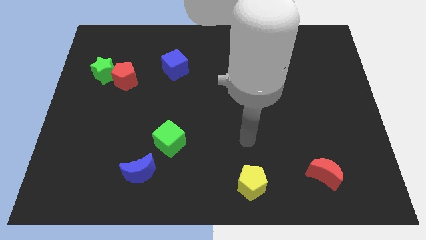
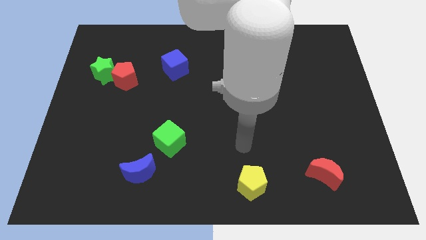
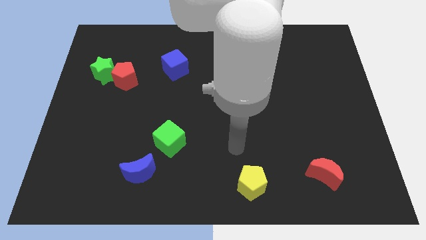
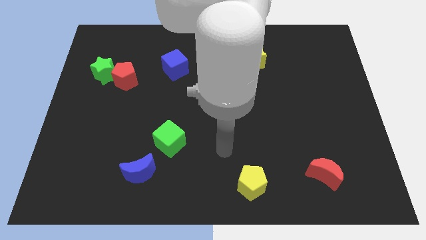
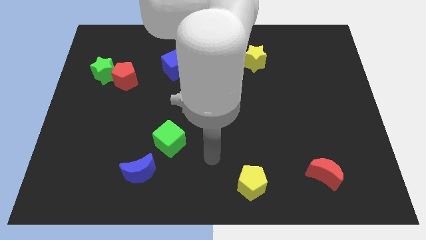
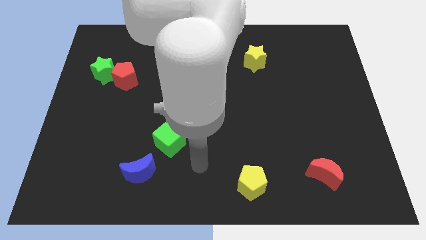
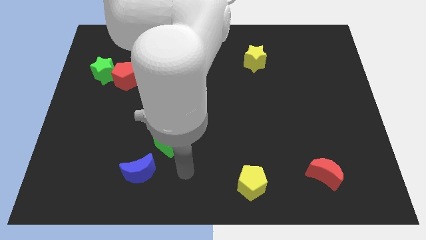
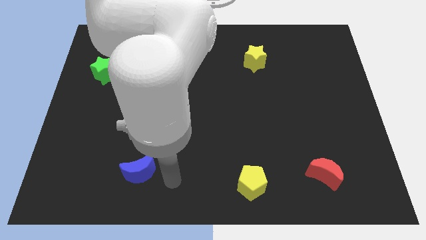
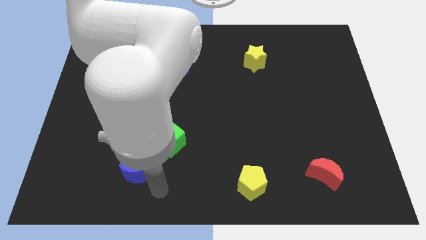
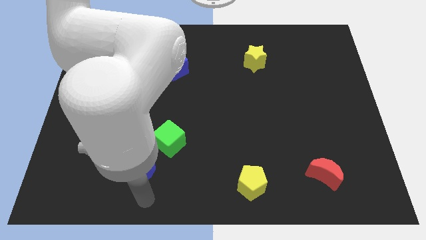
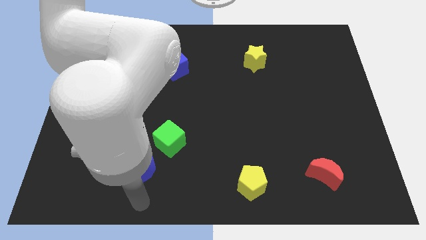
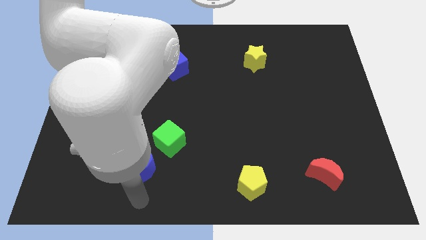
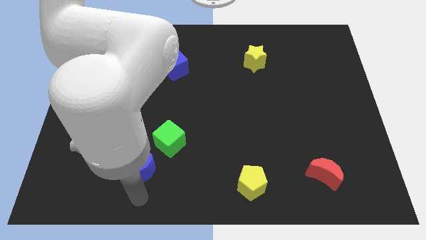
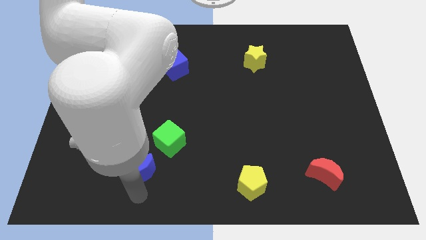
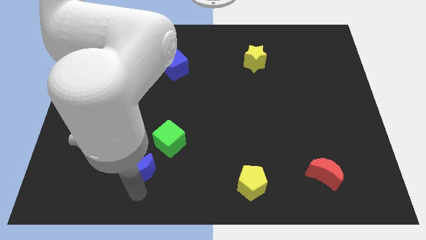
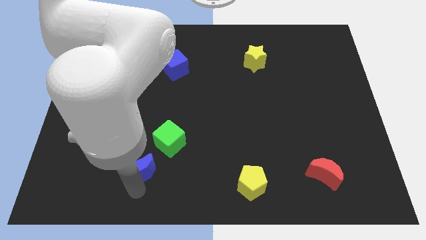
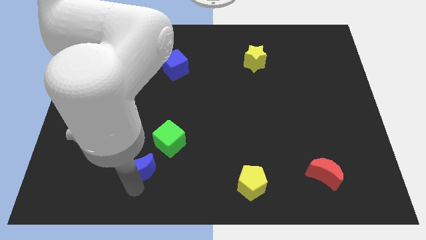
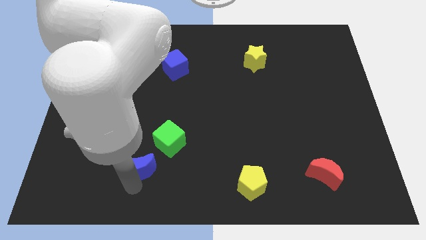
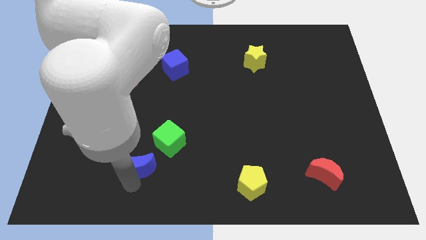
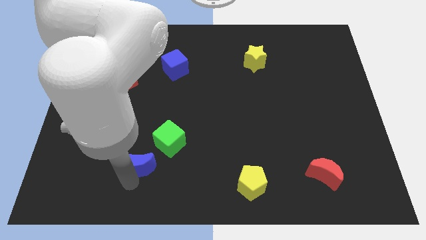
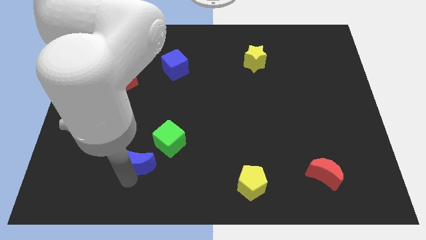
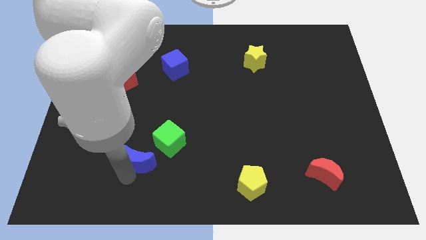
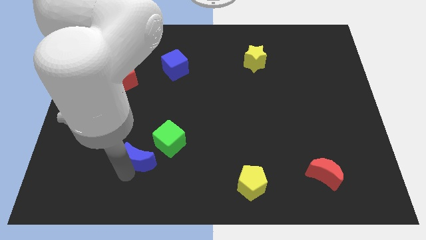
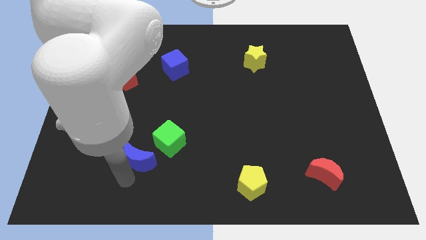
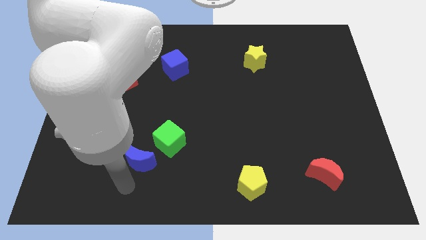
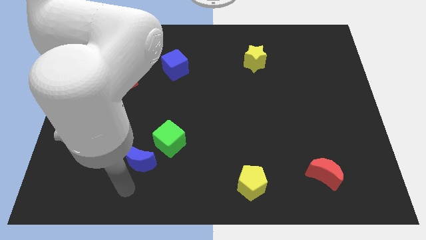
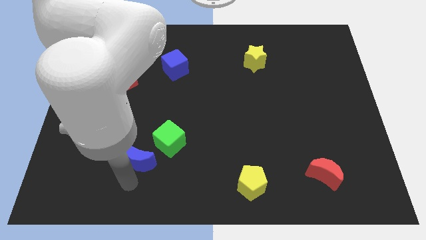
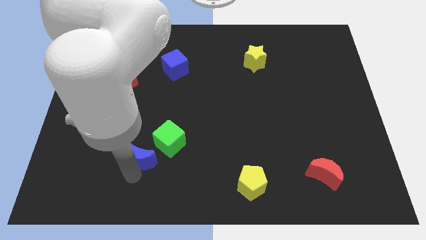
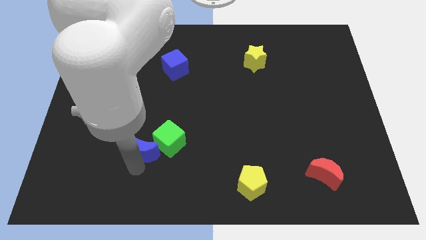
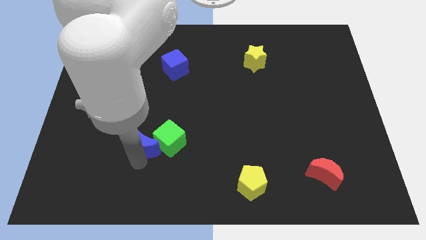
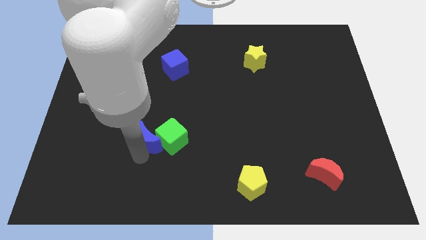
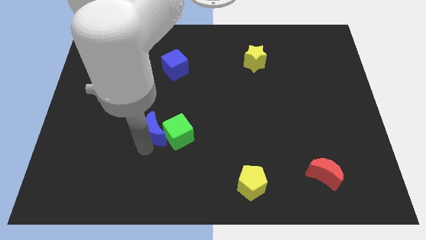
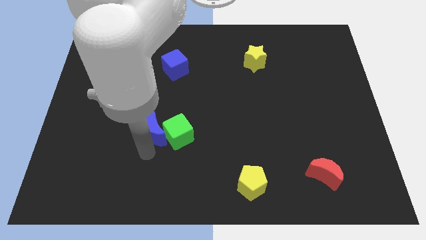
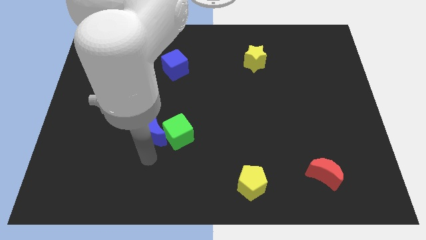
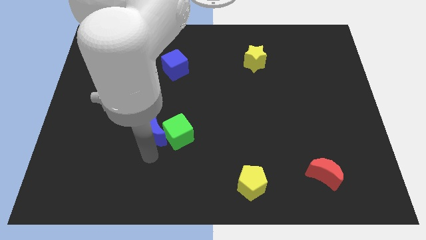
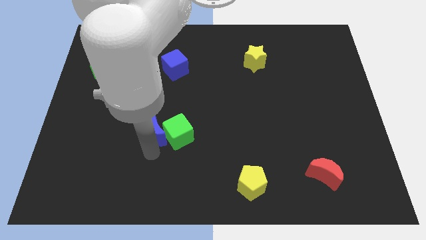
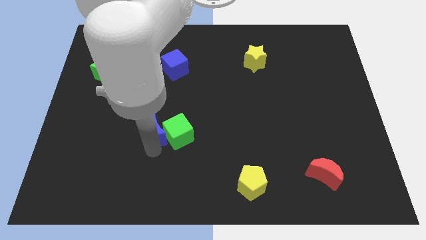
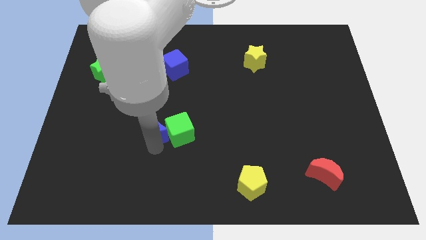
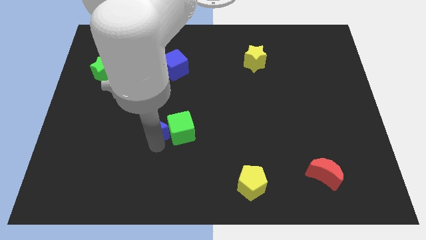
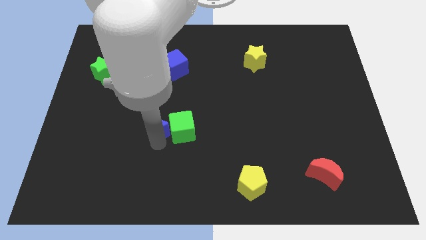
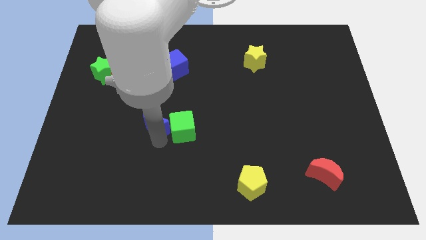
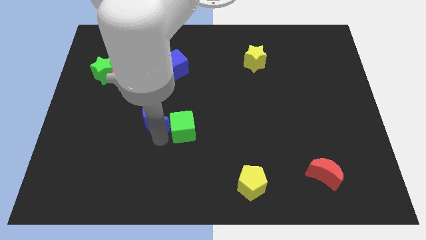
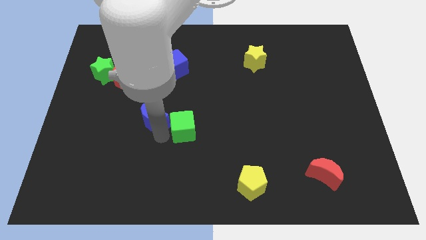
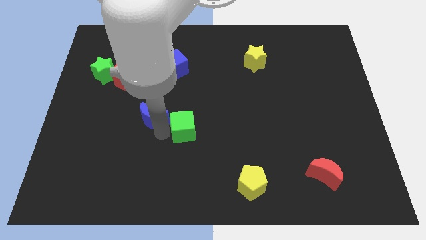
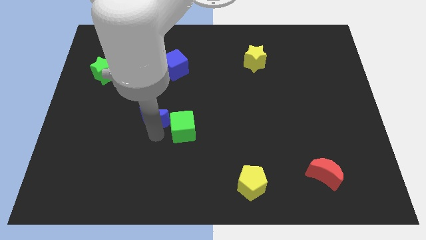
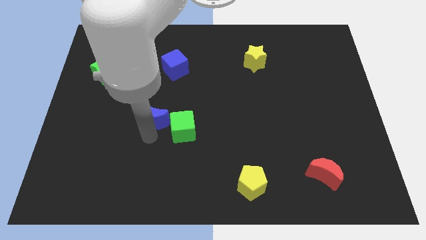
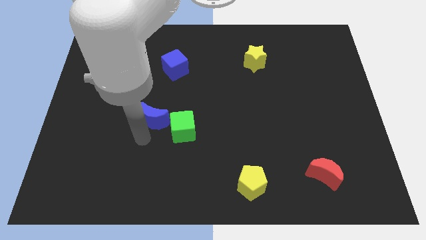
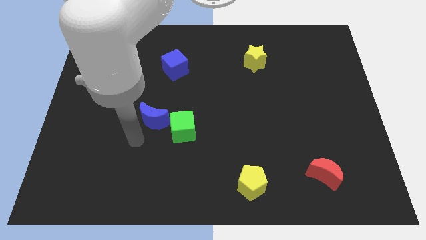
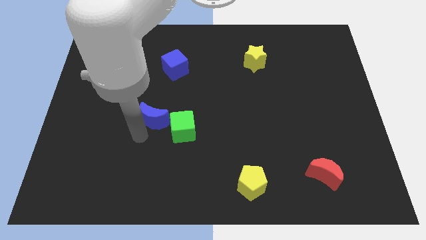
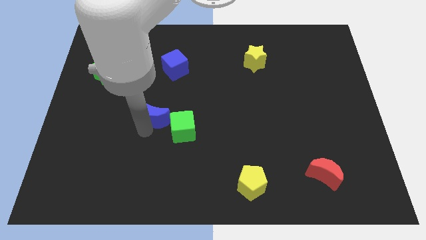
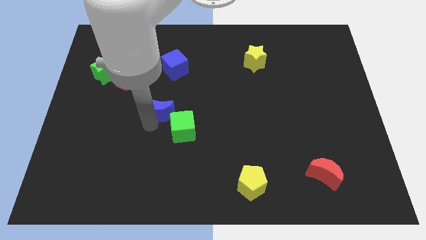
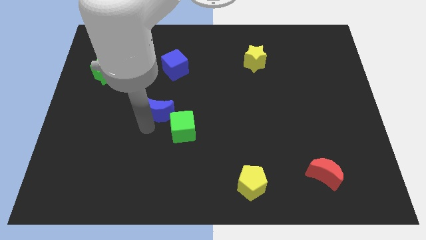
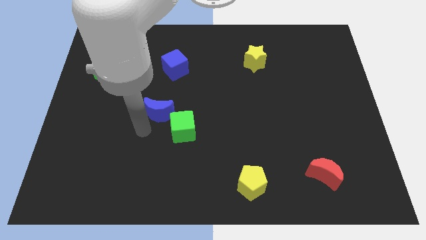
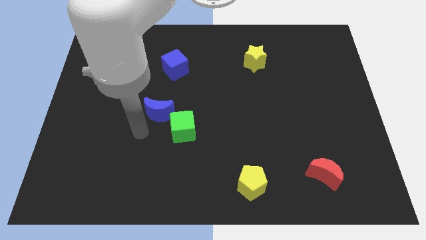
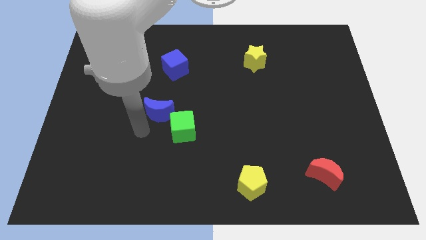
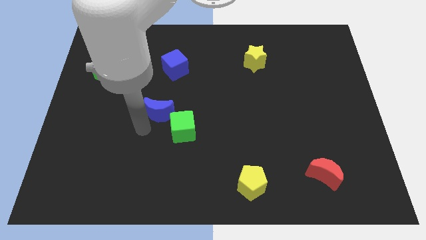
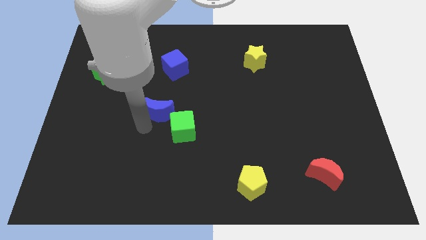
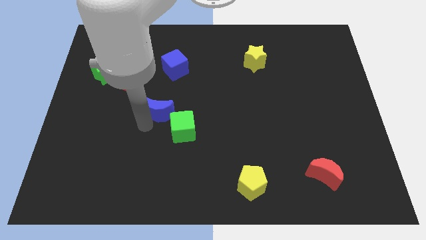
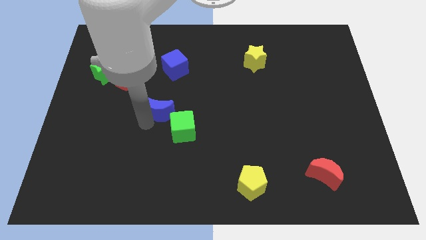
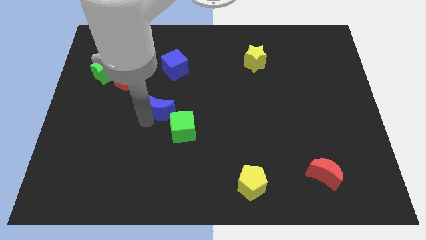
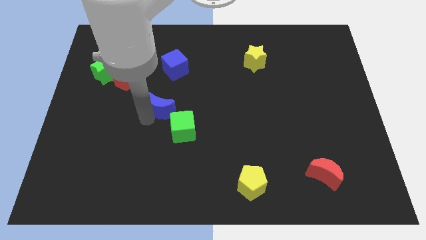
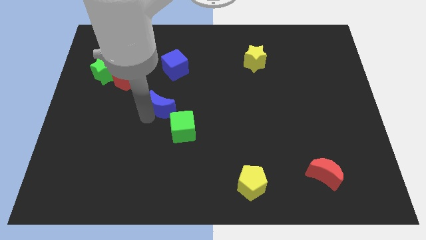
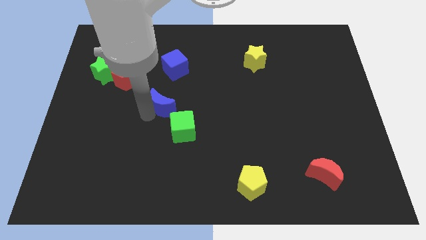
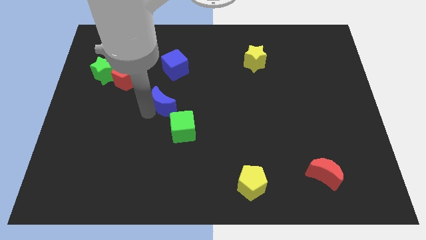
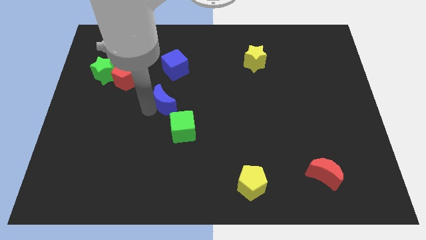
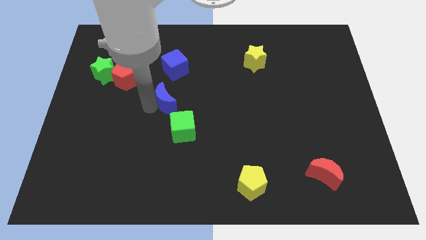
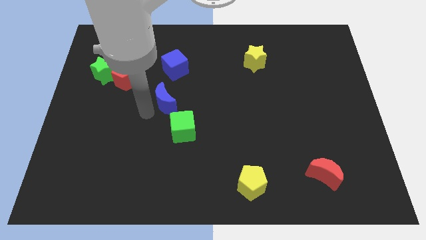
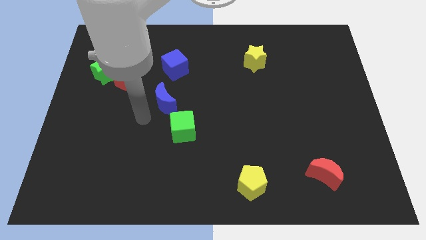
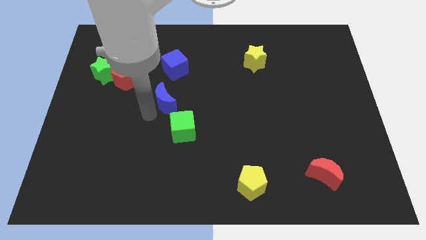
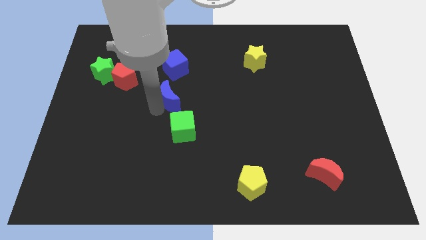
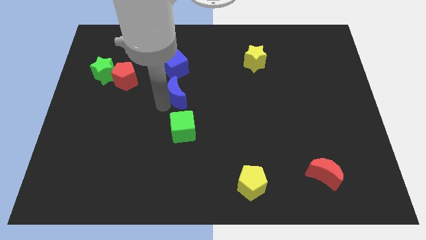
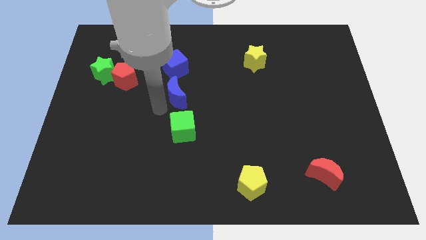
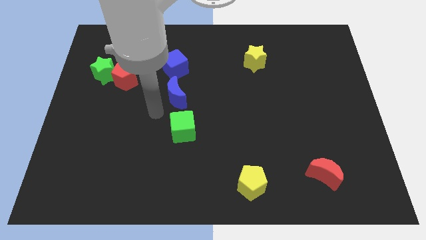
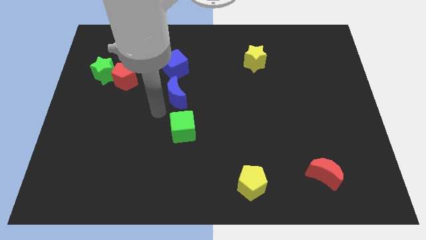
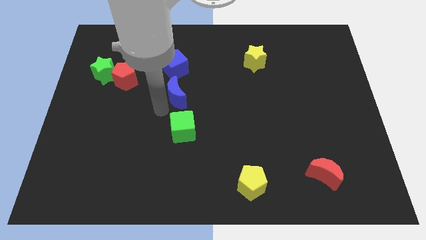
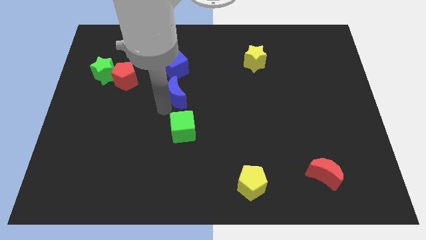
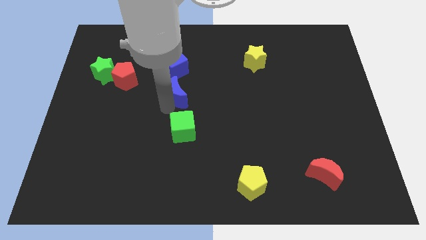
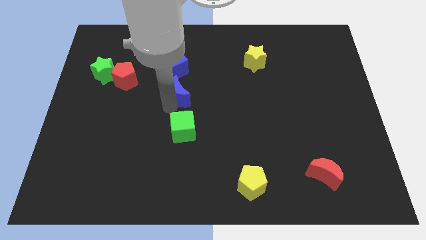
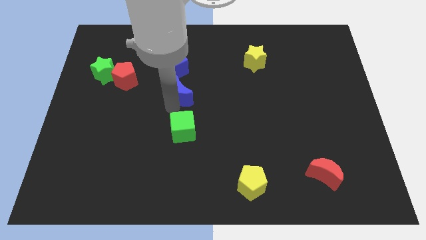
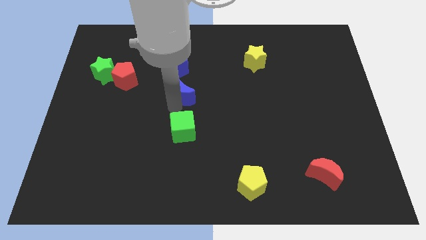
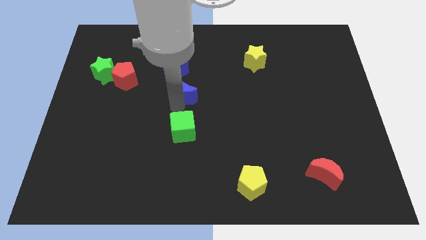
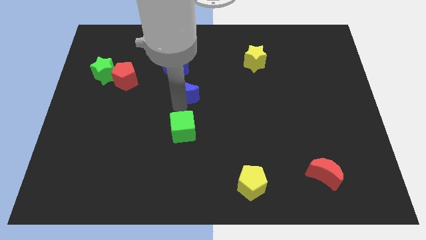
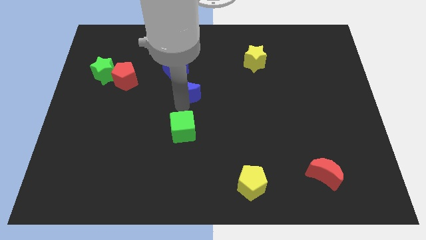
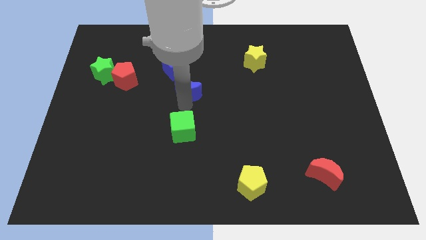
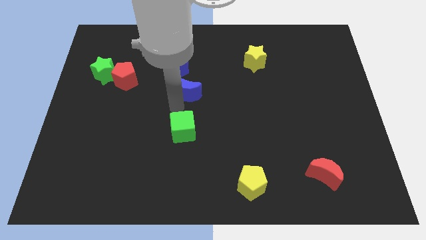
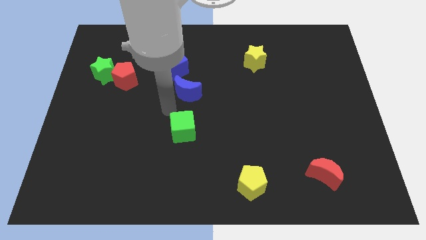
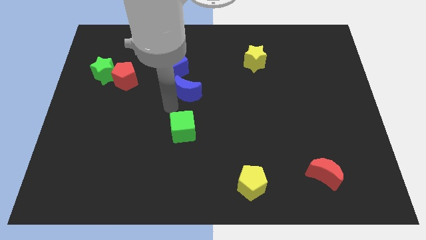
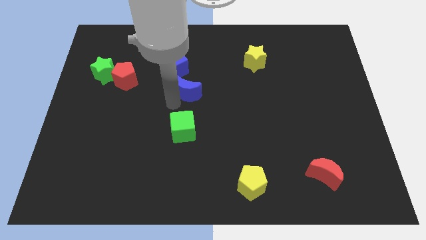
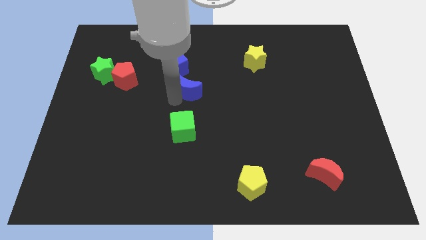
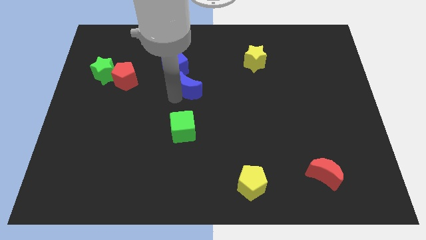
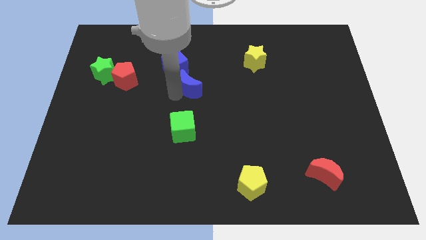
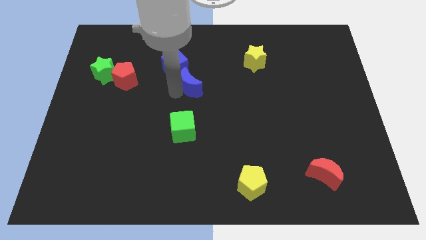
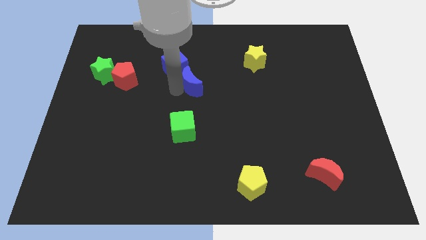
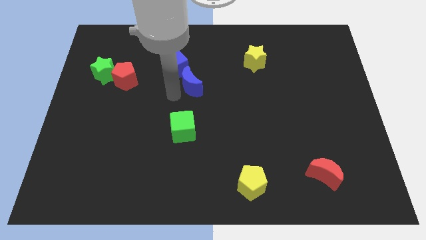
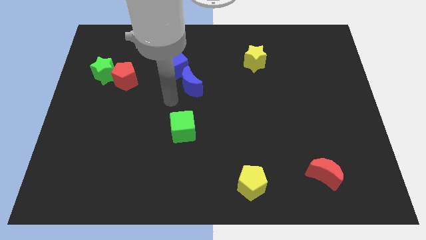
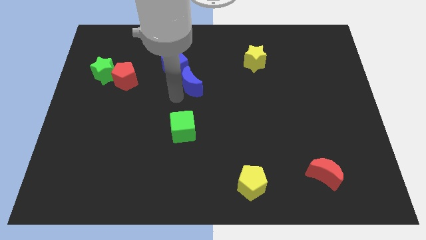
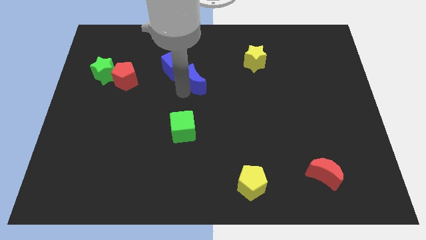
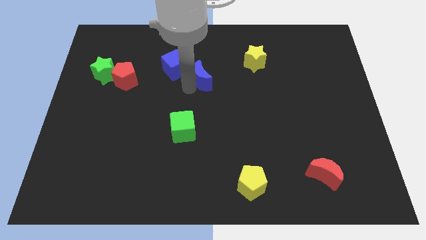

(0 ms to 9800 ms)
slide the blue moon to the right side of the blue cube
